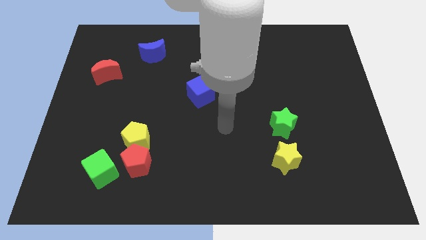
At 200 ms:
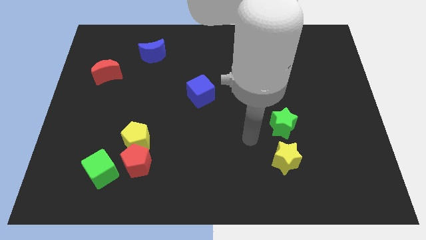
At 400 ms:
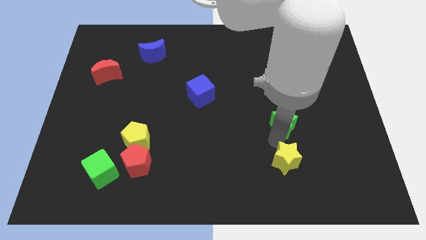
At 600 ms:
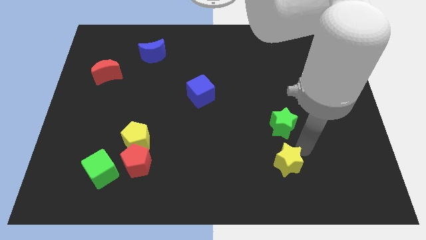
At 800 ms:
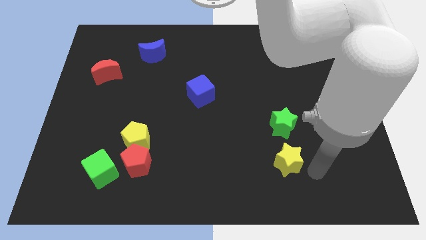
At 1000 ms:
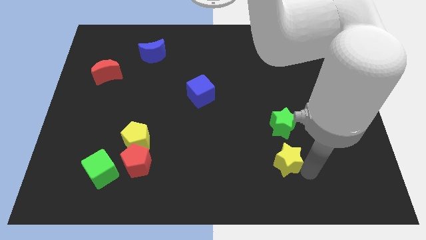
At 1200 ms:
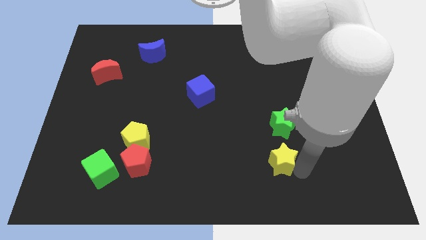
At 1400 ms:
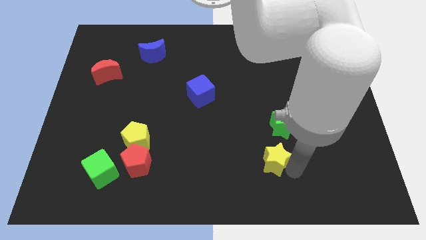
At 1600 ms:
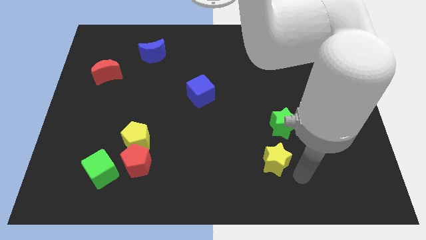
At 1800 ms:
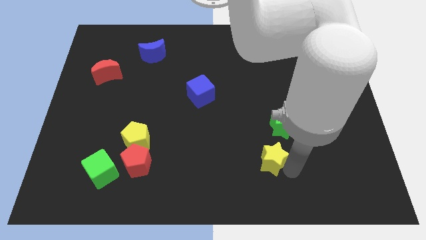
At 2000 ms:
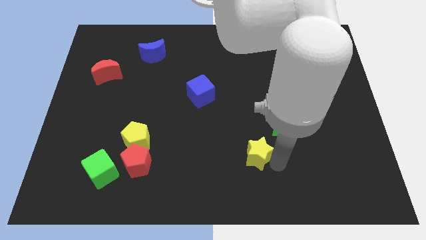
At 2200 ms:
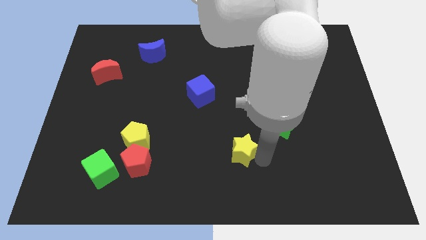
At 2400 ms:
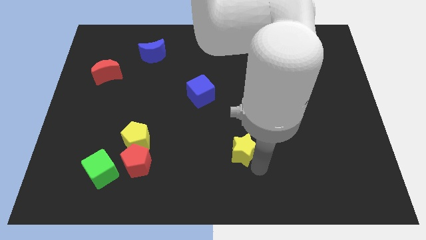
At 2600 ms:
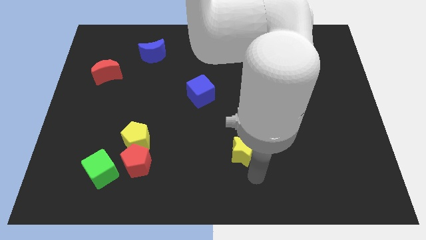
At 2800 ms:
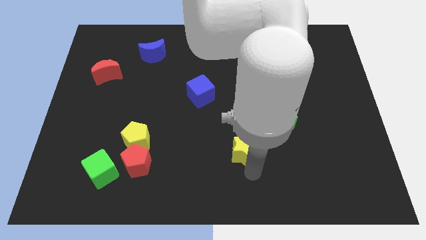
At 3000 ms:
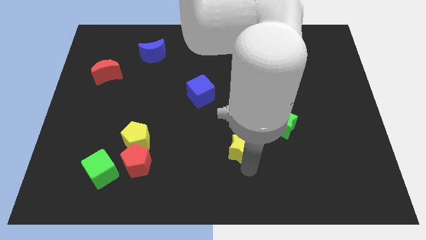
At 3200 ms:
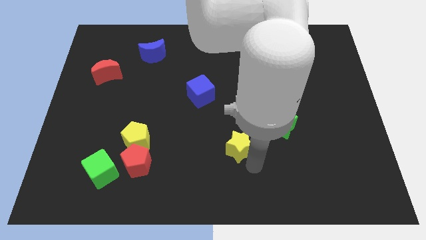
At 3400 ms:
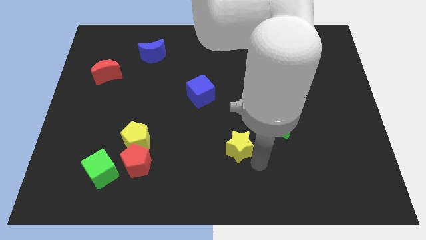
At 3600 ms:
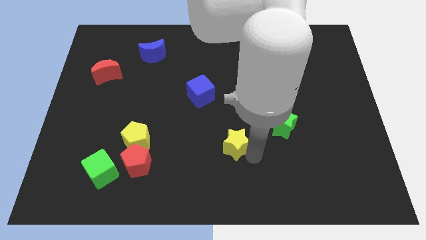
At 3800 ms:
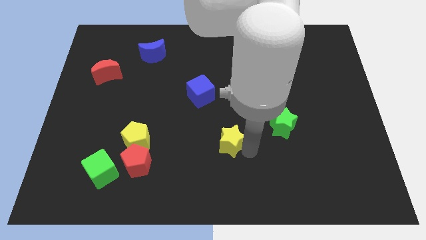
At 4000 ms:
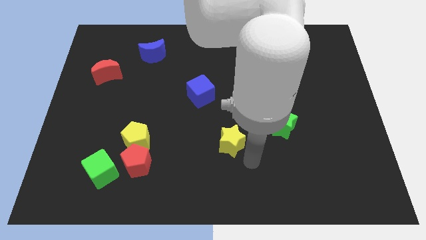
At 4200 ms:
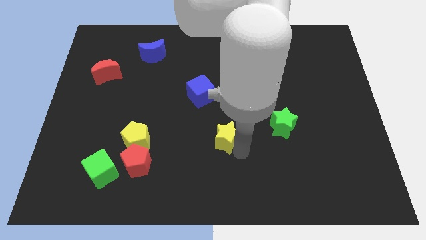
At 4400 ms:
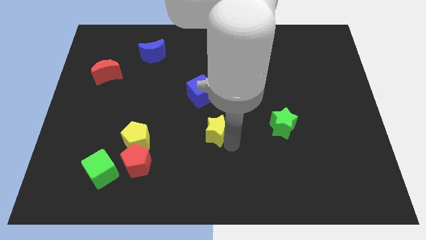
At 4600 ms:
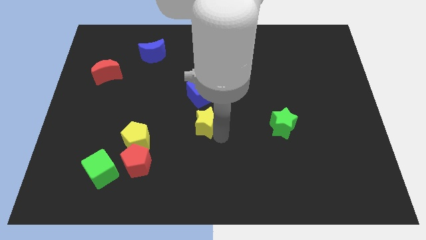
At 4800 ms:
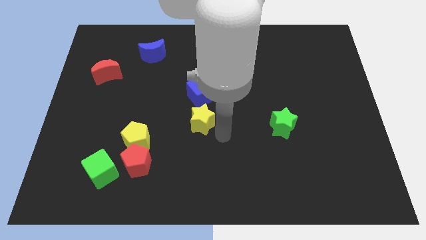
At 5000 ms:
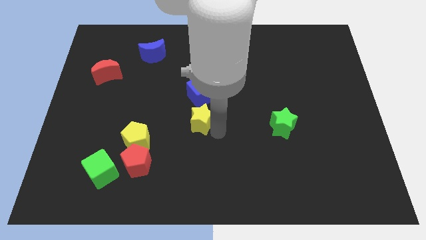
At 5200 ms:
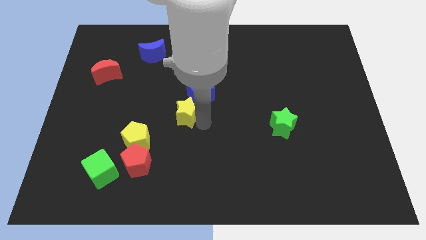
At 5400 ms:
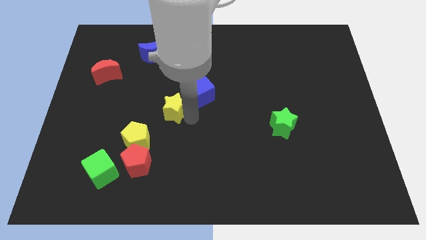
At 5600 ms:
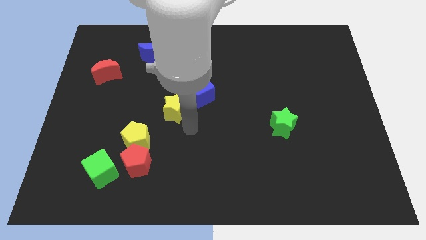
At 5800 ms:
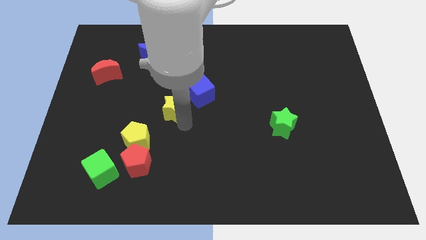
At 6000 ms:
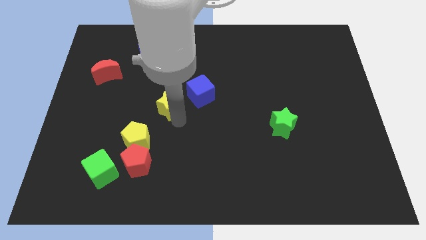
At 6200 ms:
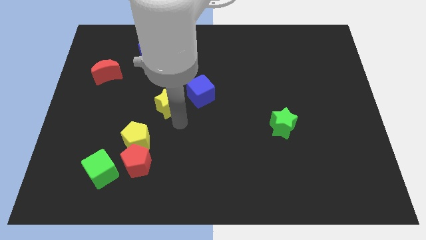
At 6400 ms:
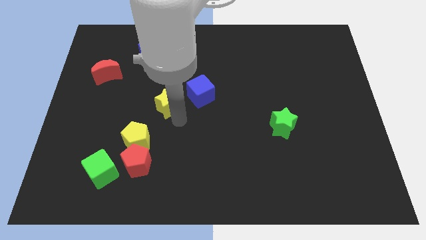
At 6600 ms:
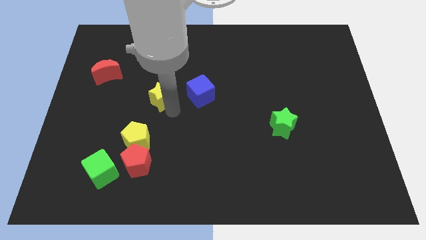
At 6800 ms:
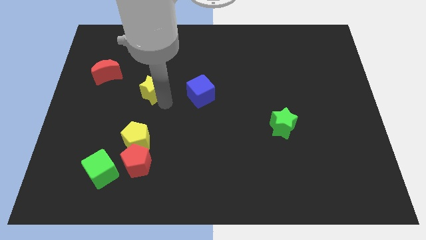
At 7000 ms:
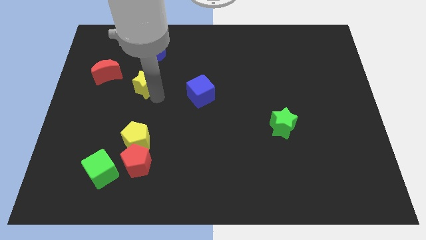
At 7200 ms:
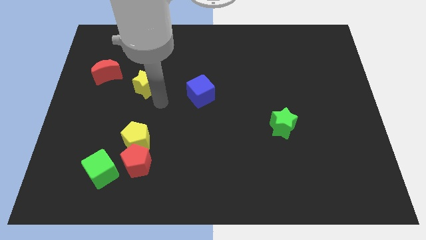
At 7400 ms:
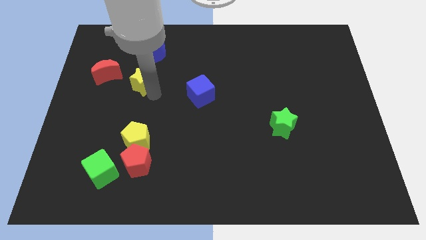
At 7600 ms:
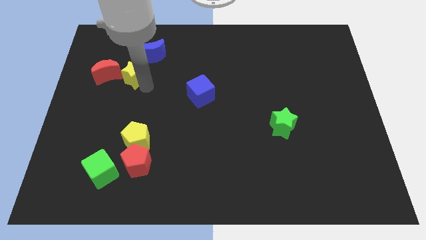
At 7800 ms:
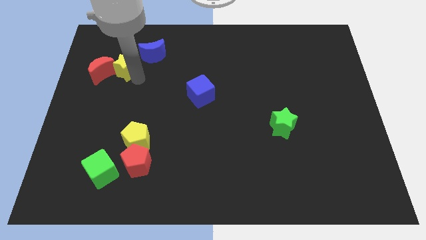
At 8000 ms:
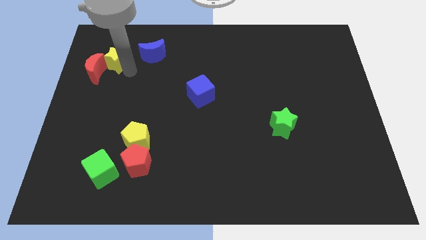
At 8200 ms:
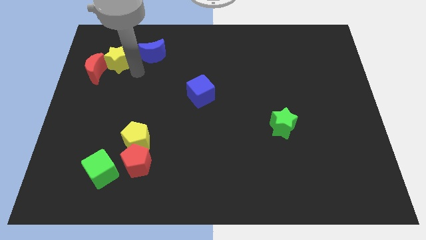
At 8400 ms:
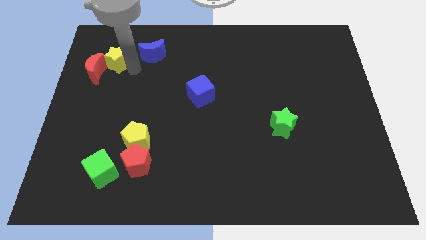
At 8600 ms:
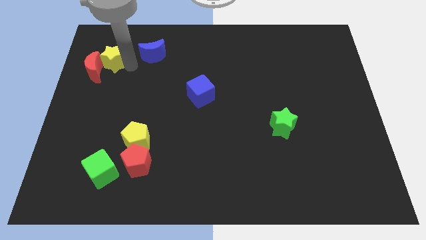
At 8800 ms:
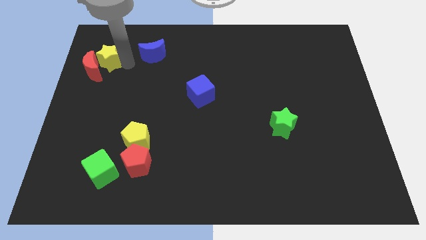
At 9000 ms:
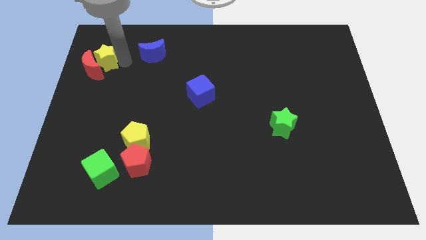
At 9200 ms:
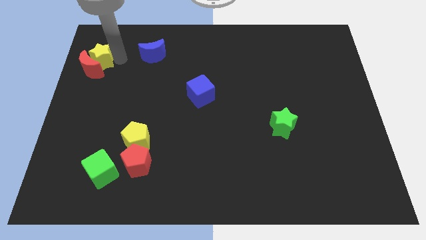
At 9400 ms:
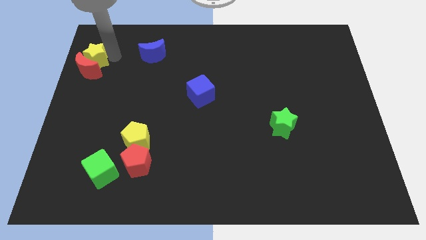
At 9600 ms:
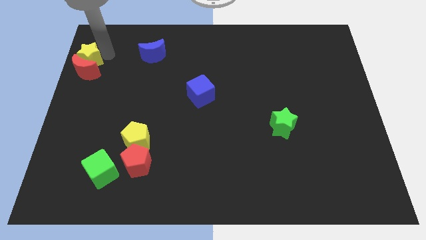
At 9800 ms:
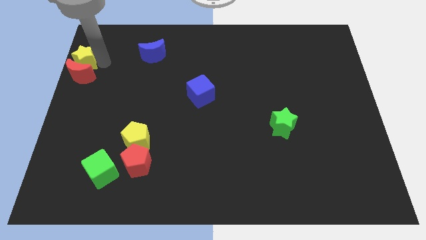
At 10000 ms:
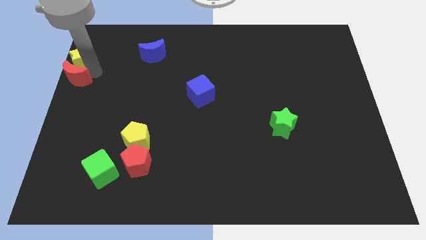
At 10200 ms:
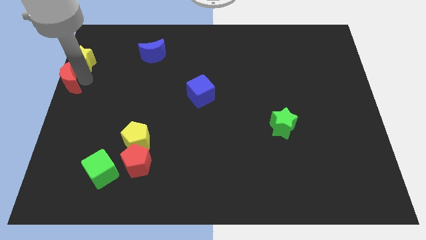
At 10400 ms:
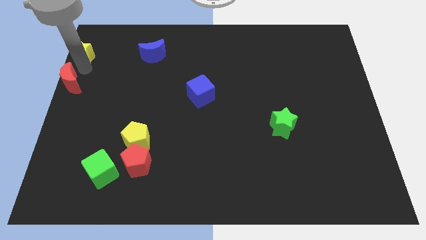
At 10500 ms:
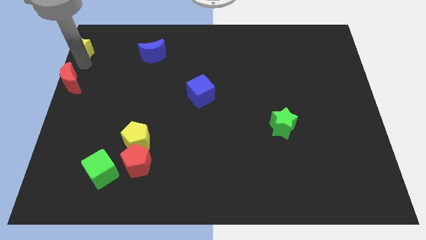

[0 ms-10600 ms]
slide the yellow star to the top left of the board
